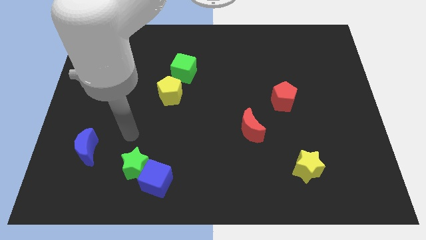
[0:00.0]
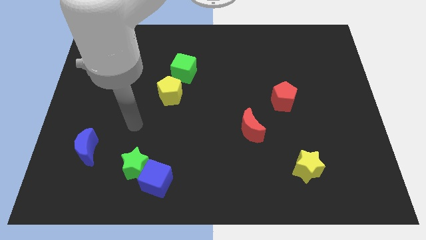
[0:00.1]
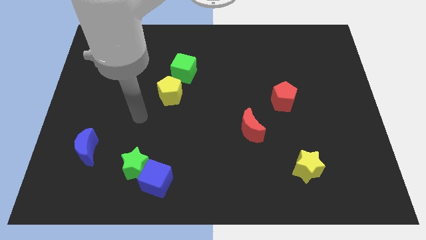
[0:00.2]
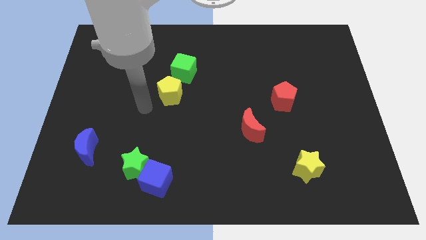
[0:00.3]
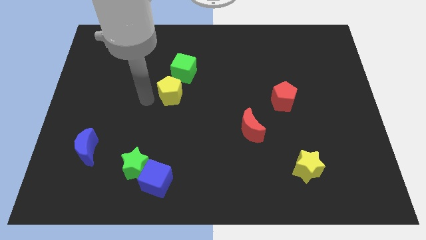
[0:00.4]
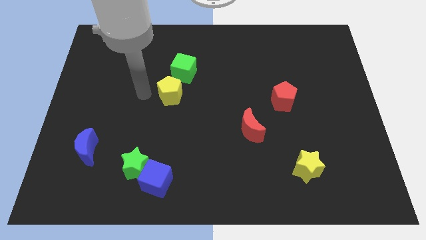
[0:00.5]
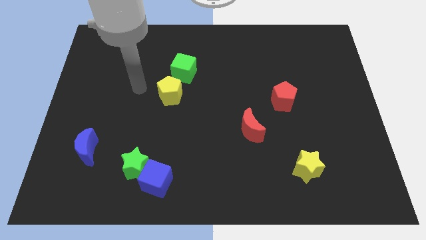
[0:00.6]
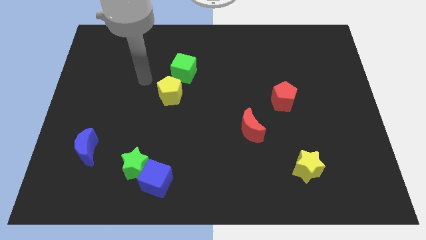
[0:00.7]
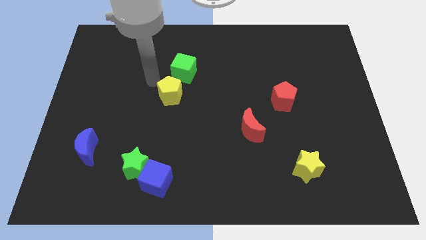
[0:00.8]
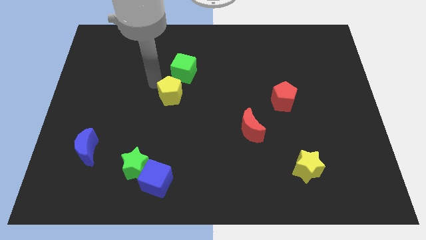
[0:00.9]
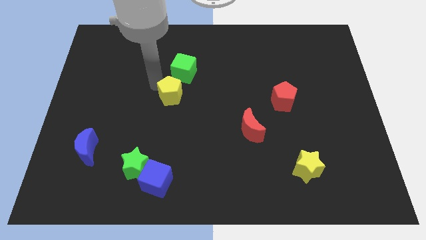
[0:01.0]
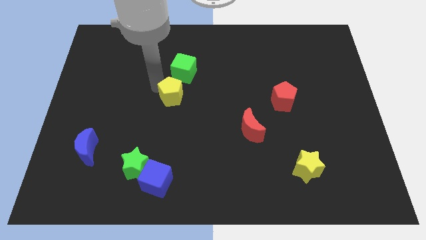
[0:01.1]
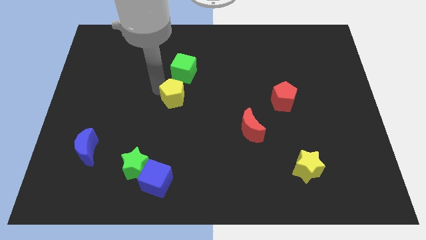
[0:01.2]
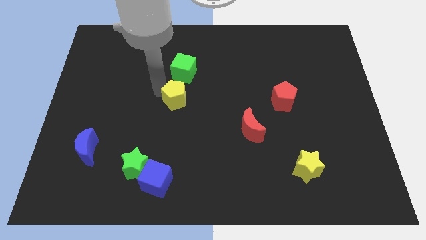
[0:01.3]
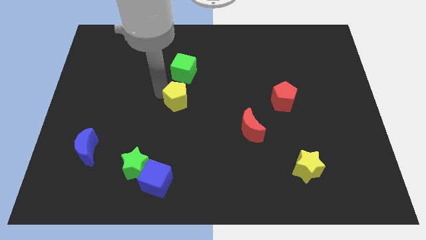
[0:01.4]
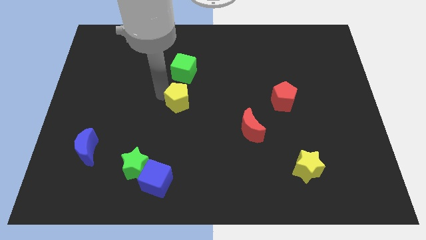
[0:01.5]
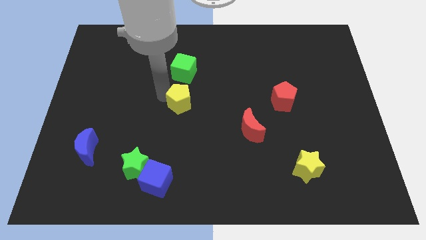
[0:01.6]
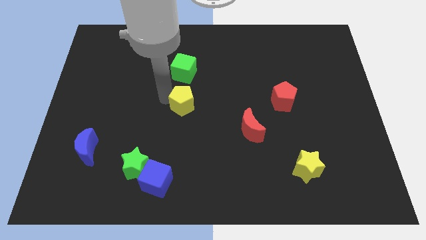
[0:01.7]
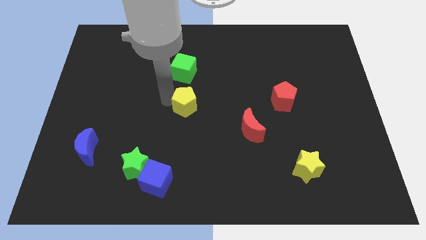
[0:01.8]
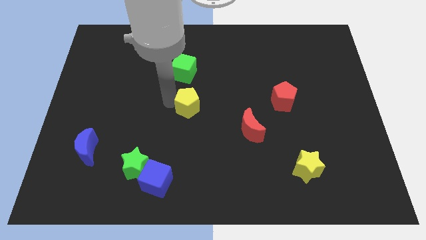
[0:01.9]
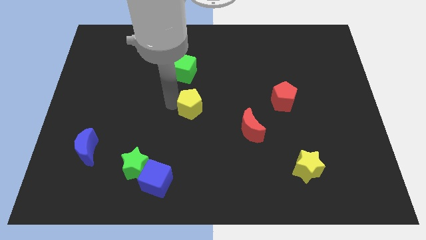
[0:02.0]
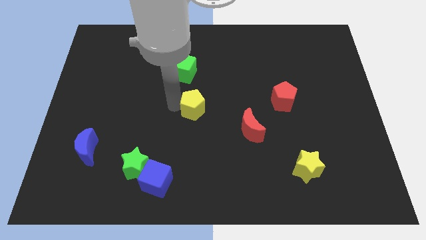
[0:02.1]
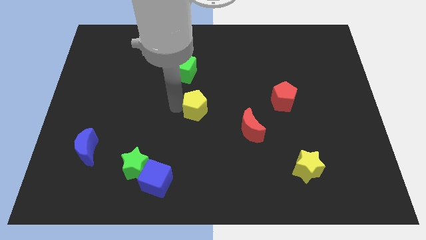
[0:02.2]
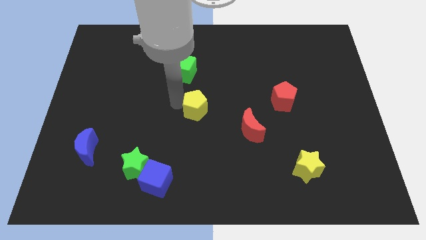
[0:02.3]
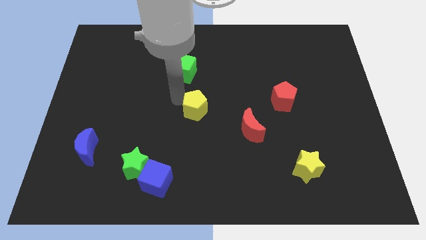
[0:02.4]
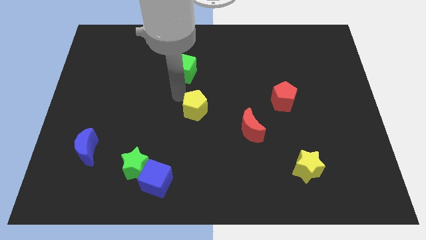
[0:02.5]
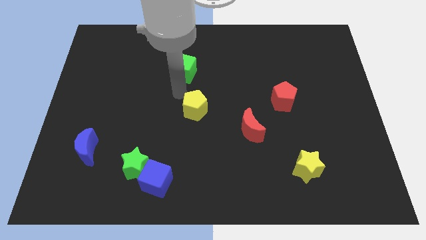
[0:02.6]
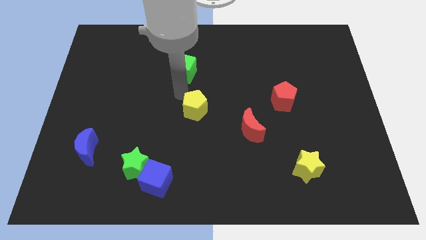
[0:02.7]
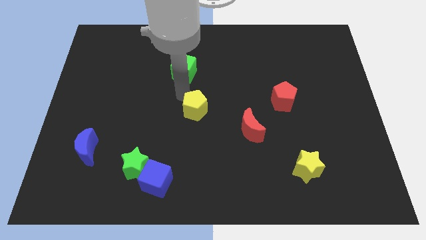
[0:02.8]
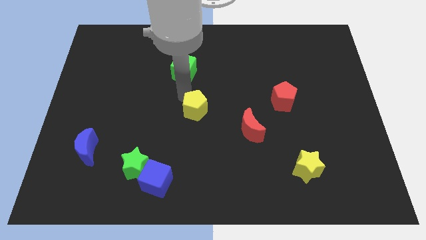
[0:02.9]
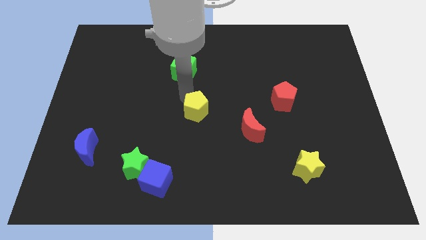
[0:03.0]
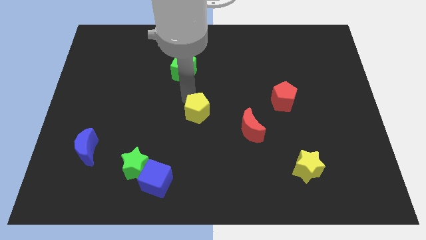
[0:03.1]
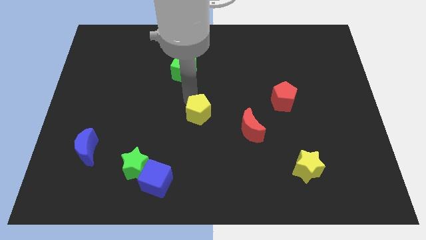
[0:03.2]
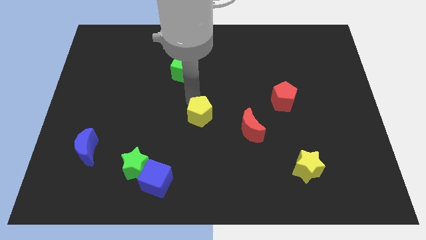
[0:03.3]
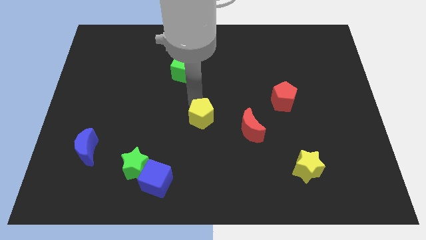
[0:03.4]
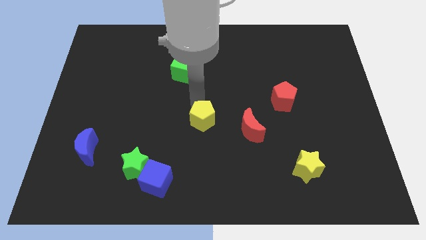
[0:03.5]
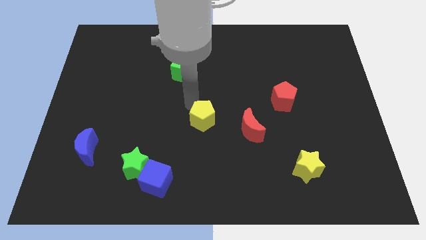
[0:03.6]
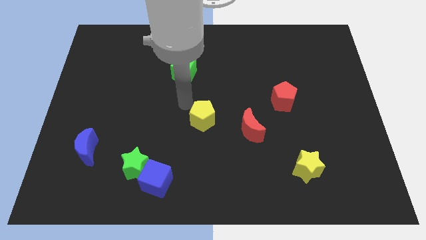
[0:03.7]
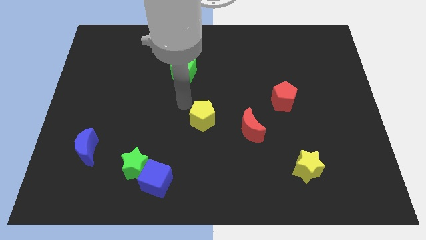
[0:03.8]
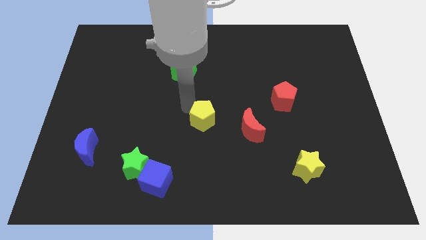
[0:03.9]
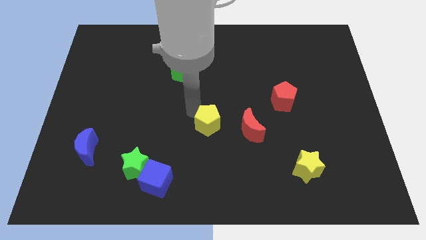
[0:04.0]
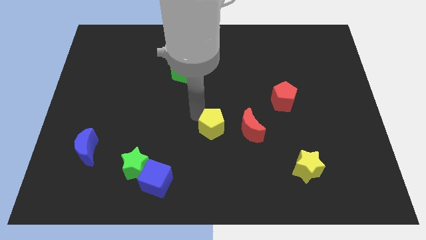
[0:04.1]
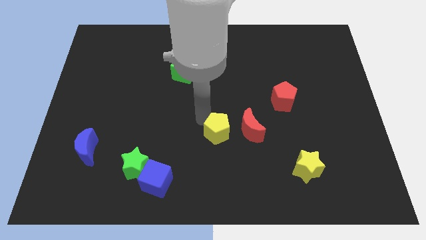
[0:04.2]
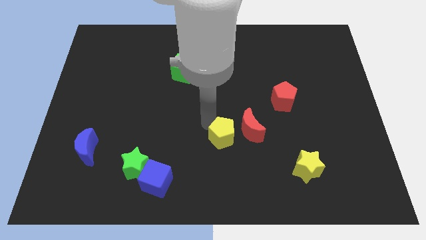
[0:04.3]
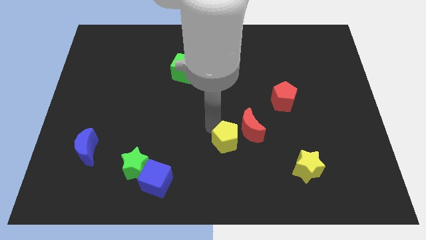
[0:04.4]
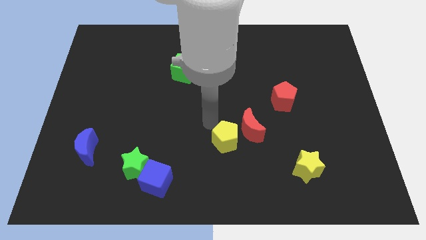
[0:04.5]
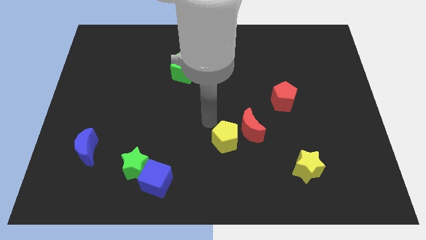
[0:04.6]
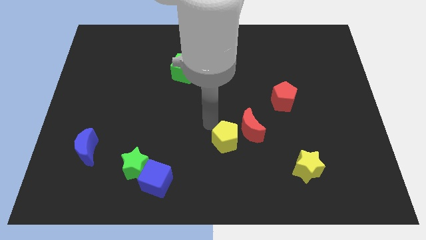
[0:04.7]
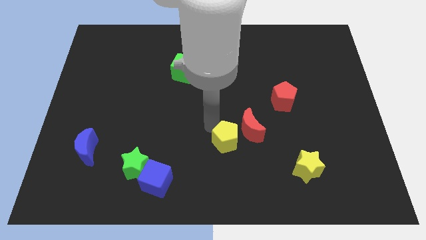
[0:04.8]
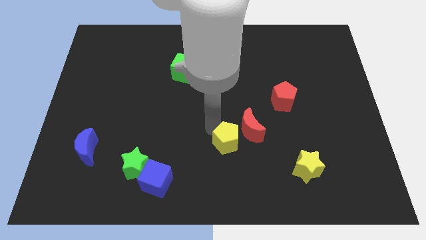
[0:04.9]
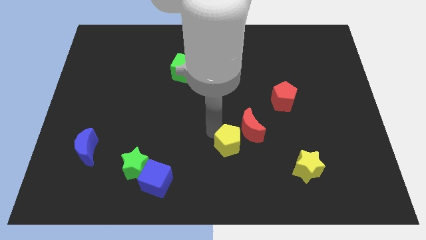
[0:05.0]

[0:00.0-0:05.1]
slide the yellow pentagon downwards and right

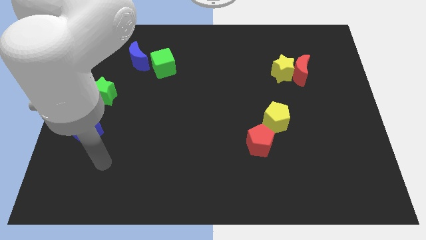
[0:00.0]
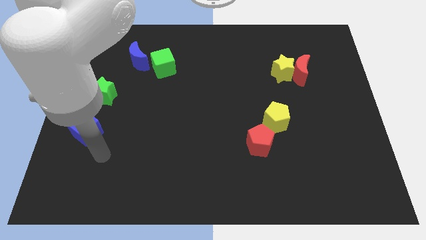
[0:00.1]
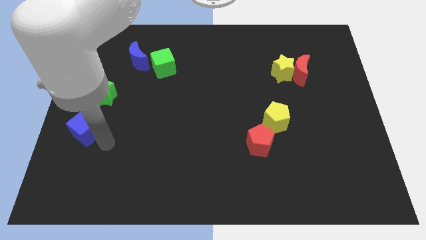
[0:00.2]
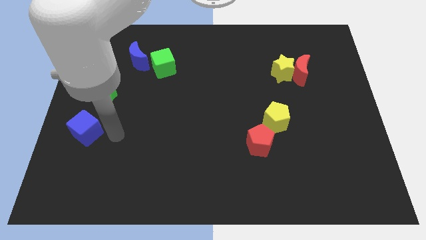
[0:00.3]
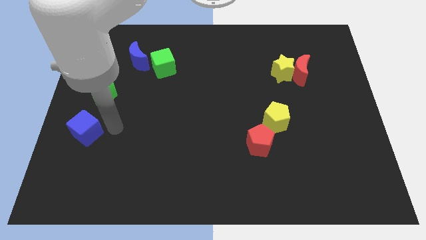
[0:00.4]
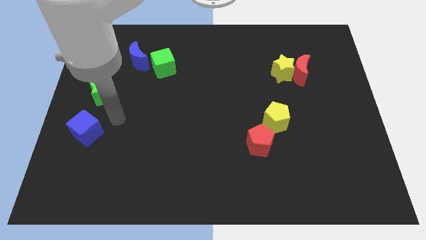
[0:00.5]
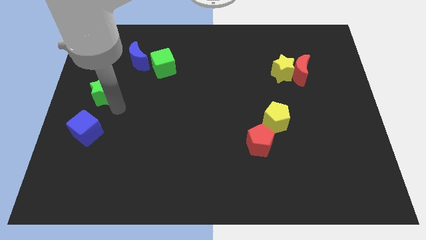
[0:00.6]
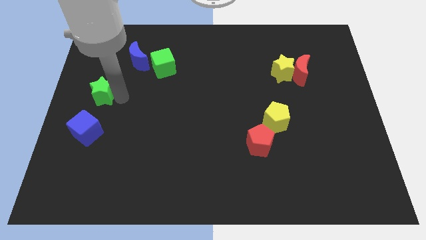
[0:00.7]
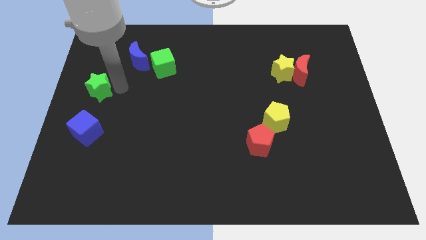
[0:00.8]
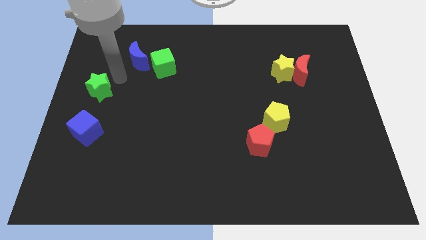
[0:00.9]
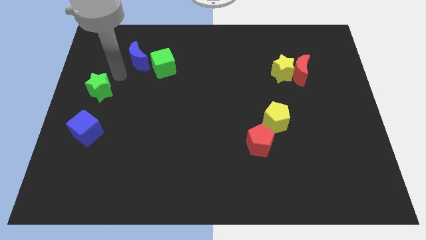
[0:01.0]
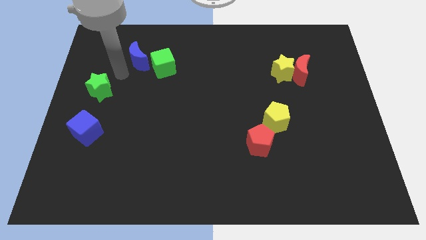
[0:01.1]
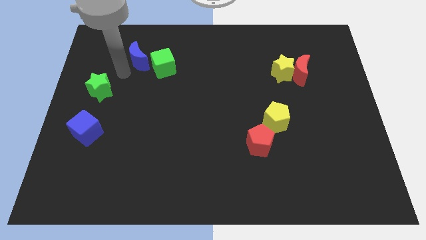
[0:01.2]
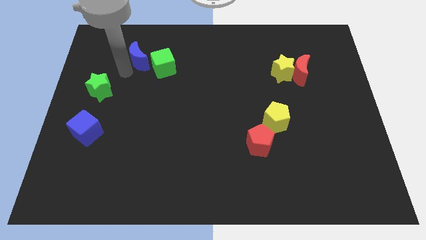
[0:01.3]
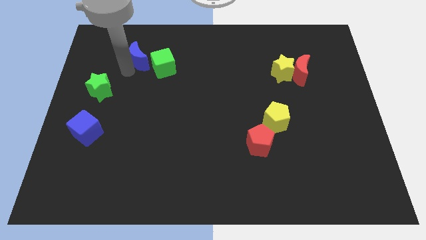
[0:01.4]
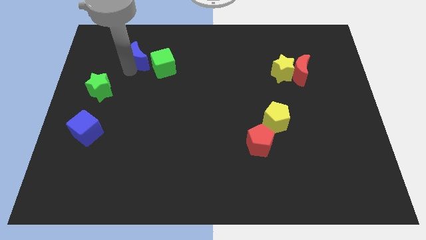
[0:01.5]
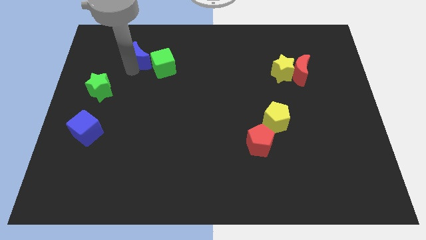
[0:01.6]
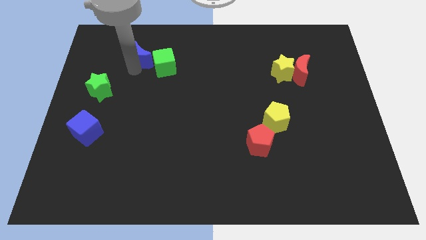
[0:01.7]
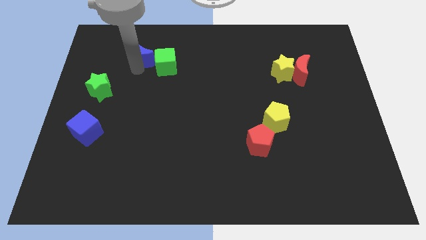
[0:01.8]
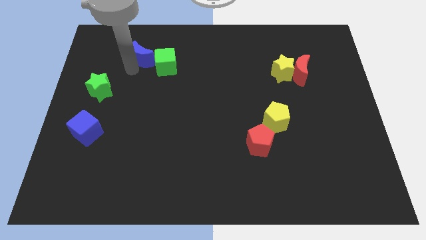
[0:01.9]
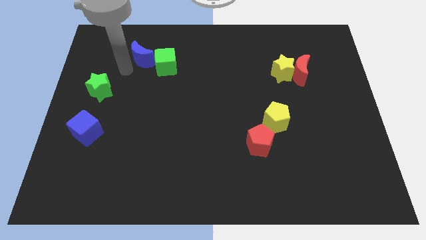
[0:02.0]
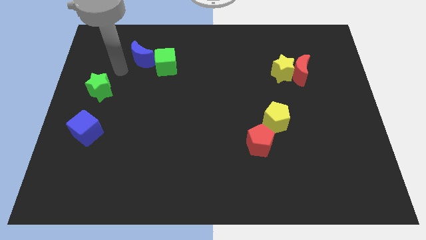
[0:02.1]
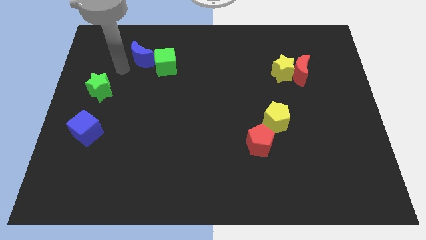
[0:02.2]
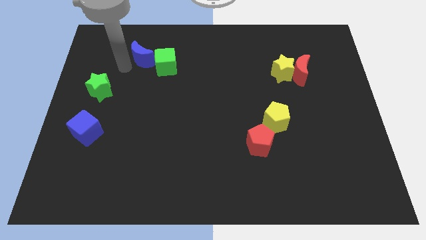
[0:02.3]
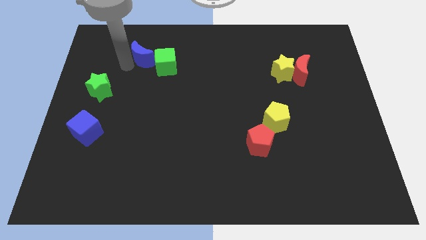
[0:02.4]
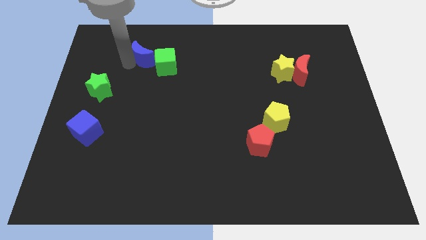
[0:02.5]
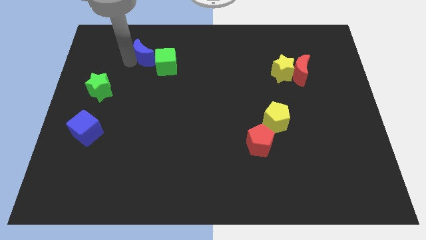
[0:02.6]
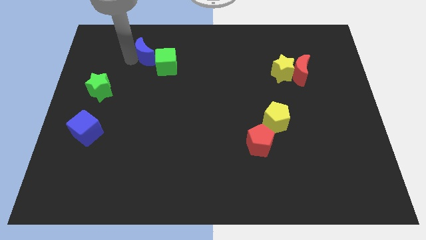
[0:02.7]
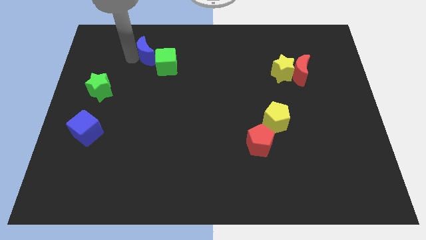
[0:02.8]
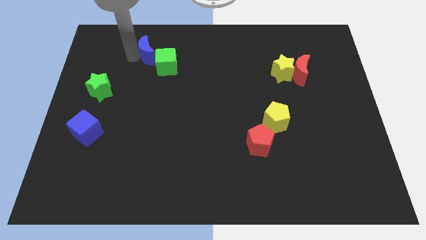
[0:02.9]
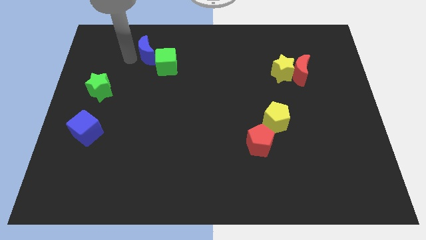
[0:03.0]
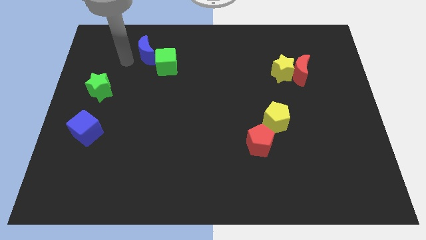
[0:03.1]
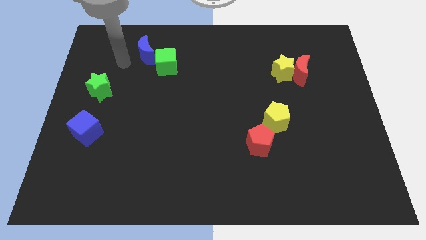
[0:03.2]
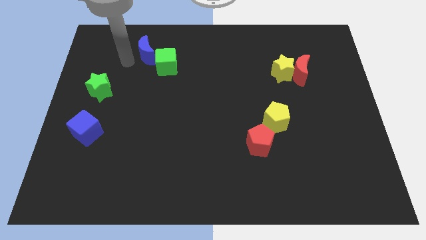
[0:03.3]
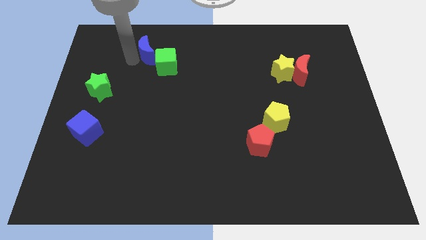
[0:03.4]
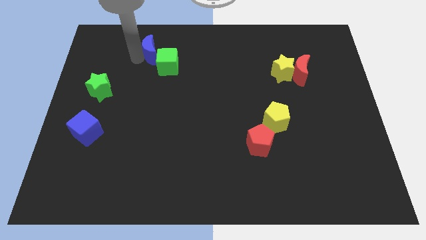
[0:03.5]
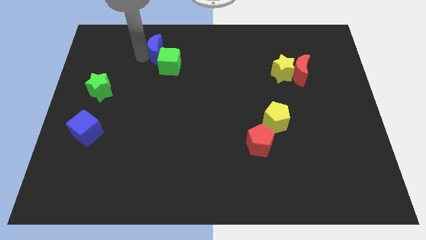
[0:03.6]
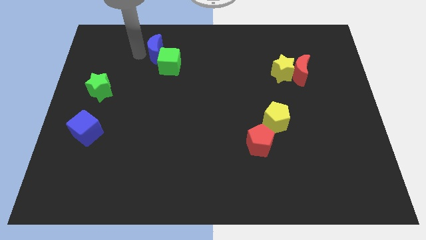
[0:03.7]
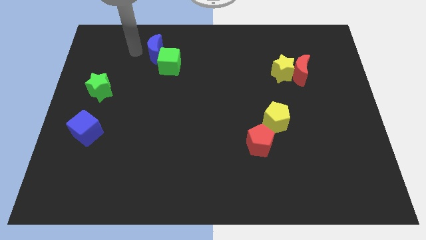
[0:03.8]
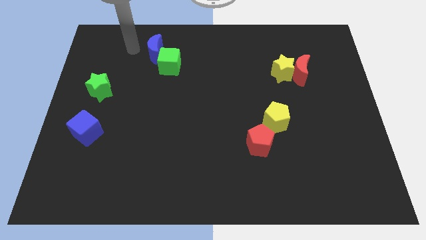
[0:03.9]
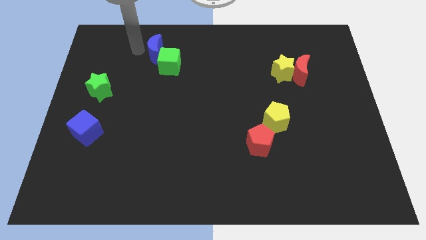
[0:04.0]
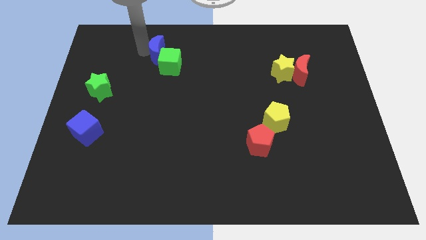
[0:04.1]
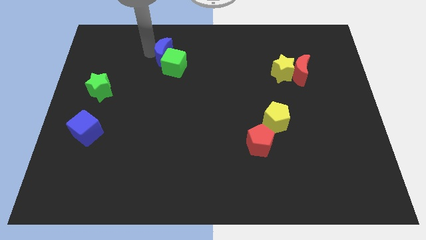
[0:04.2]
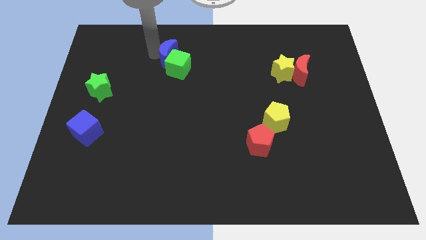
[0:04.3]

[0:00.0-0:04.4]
move the blue moon to the right a little bit
